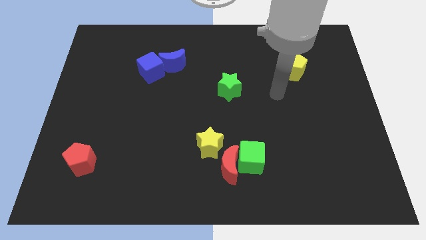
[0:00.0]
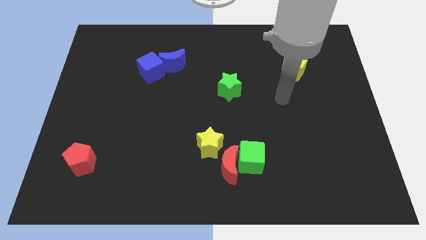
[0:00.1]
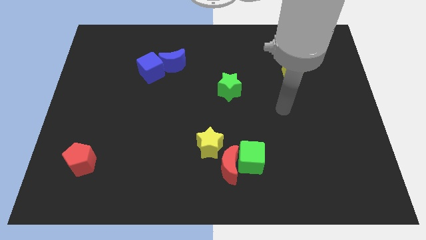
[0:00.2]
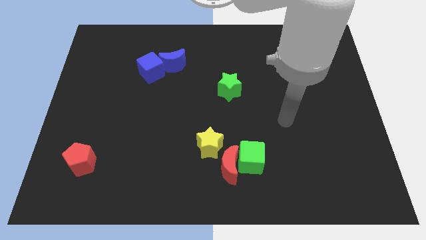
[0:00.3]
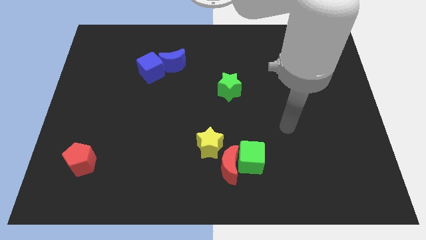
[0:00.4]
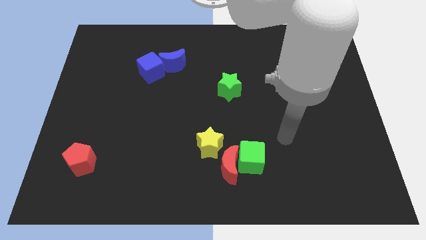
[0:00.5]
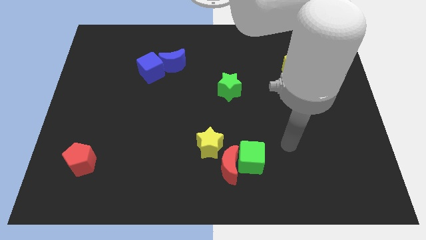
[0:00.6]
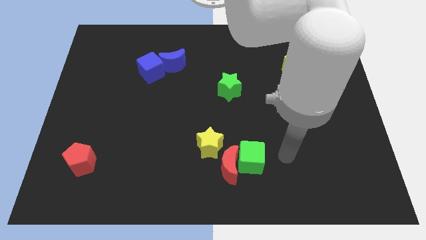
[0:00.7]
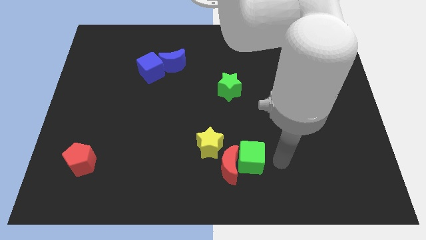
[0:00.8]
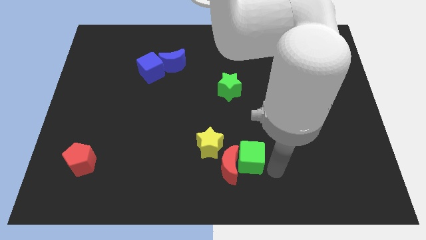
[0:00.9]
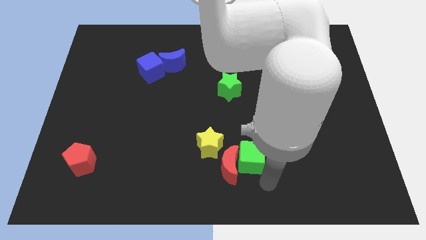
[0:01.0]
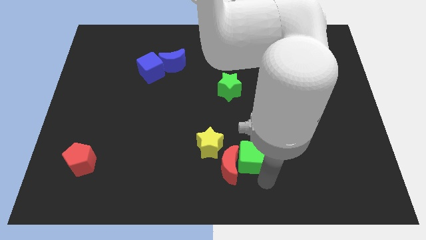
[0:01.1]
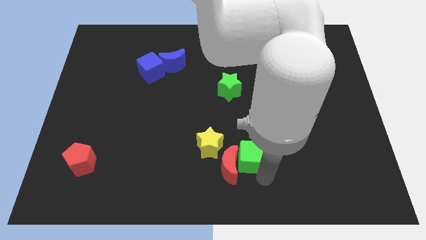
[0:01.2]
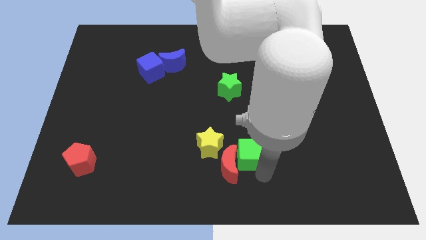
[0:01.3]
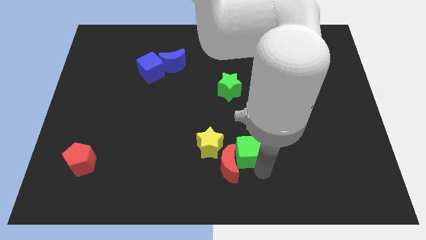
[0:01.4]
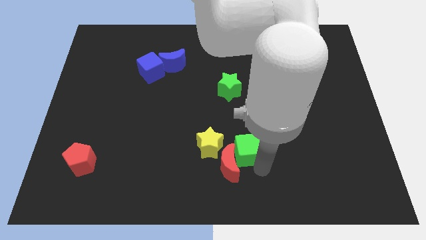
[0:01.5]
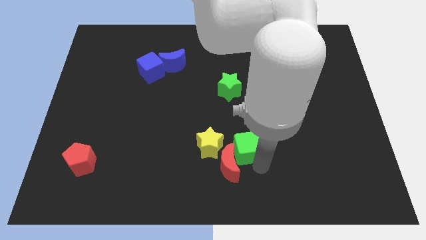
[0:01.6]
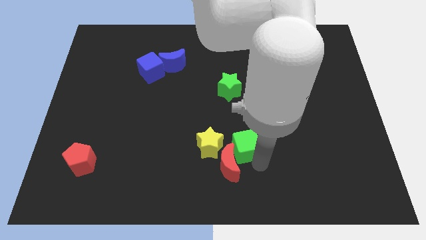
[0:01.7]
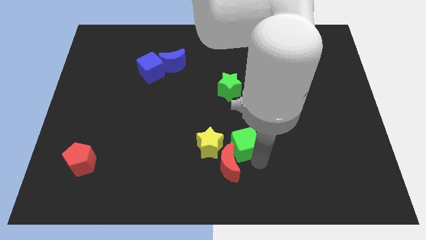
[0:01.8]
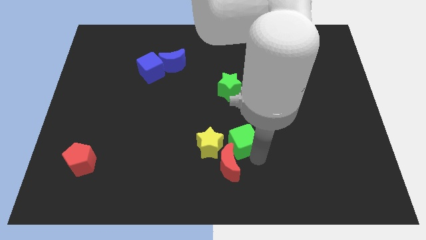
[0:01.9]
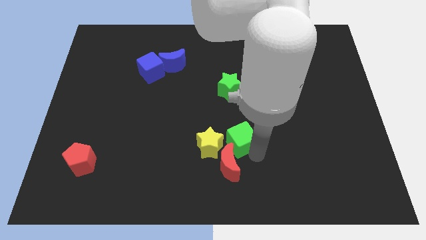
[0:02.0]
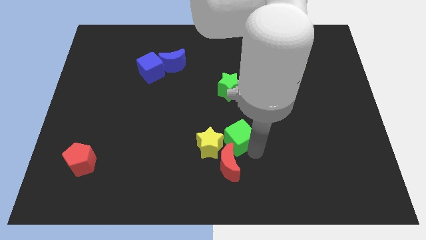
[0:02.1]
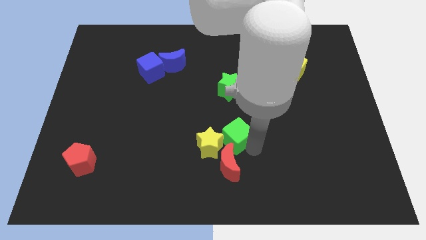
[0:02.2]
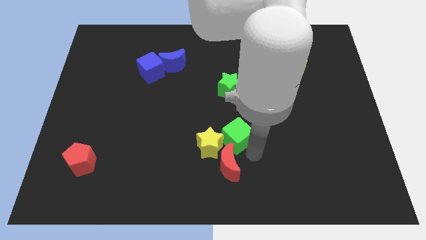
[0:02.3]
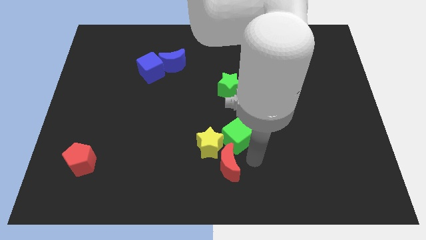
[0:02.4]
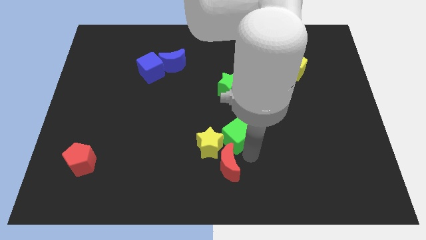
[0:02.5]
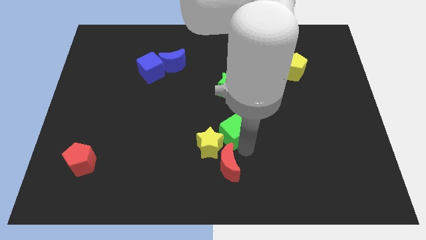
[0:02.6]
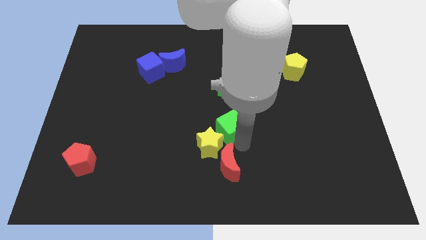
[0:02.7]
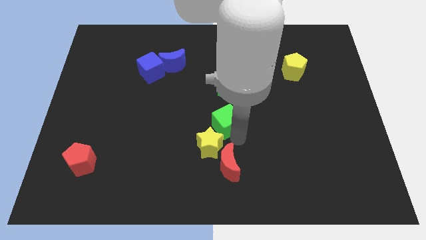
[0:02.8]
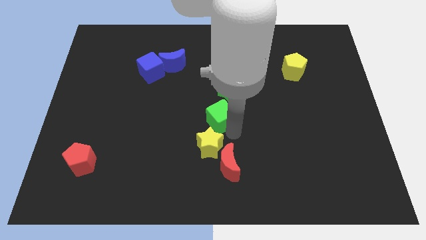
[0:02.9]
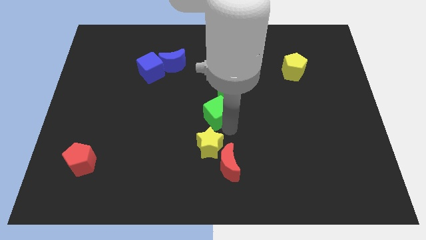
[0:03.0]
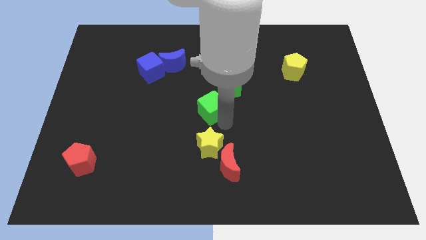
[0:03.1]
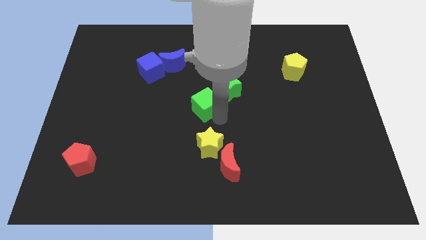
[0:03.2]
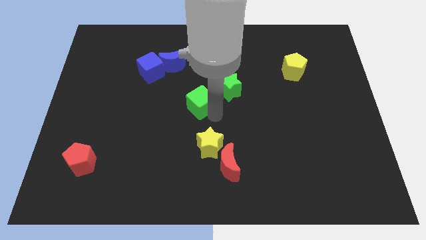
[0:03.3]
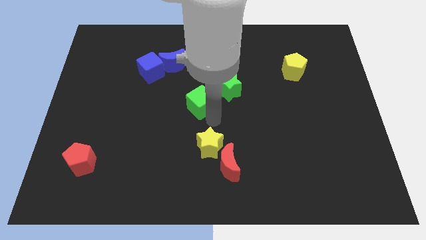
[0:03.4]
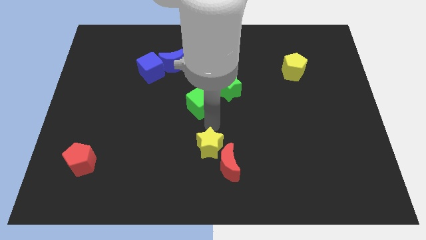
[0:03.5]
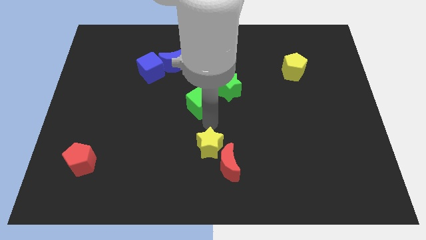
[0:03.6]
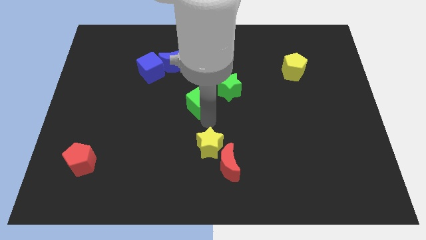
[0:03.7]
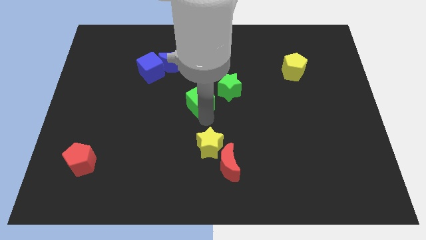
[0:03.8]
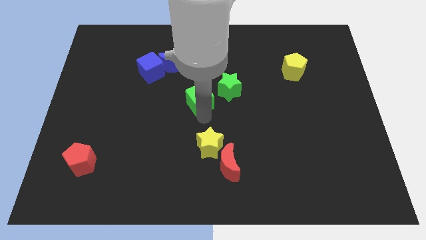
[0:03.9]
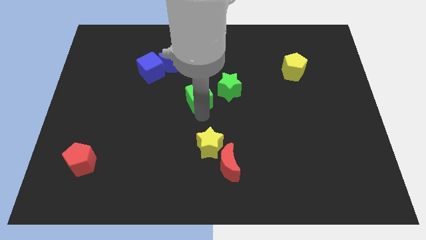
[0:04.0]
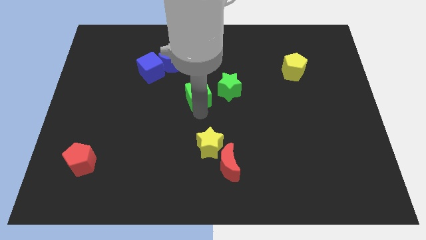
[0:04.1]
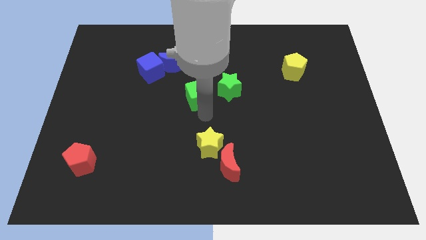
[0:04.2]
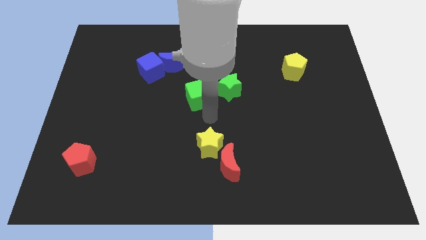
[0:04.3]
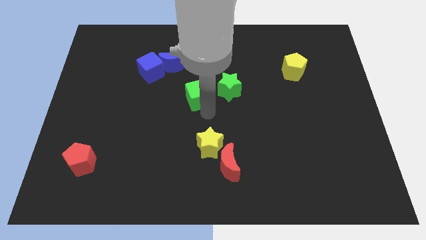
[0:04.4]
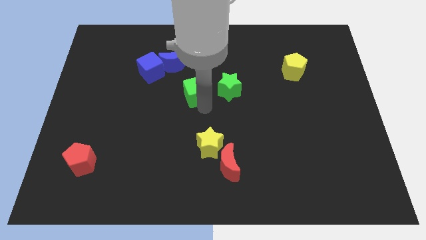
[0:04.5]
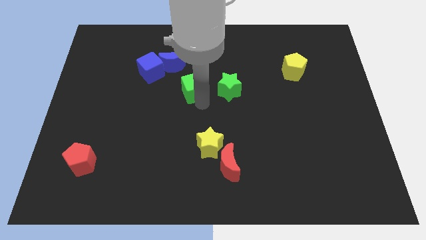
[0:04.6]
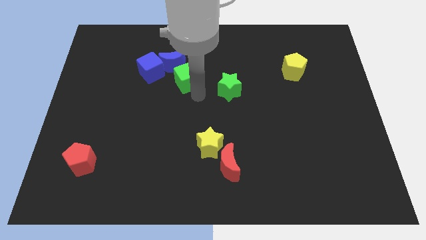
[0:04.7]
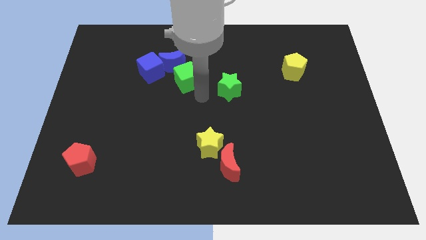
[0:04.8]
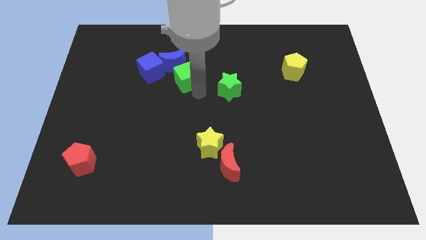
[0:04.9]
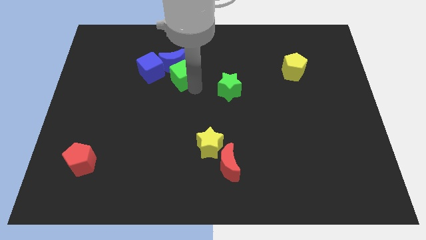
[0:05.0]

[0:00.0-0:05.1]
push the green cube close to the blue moon

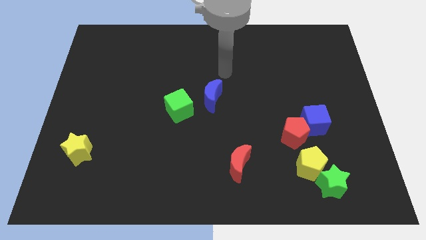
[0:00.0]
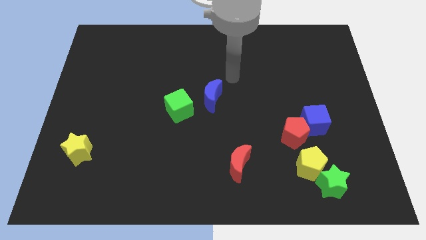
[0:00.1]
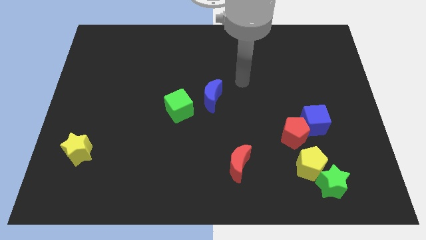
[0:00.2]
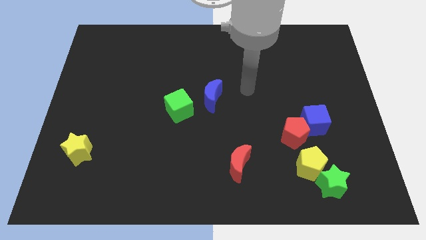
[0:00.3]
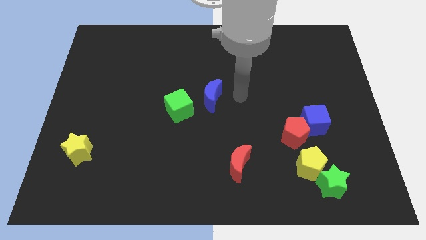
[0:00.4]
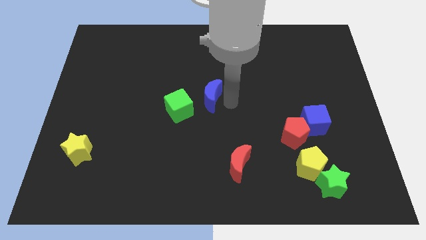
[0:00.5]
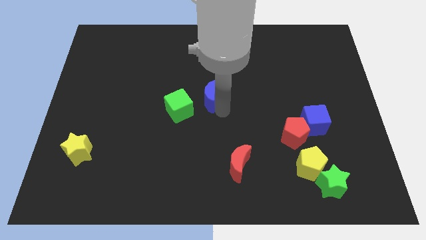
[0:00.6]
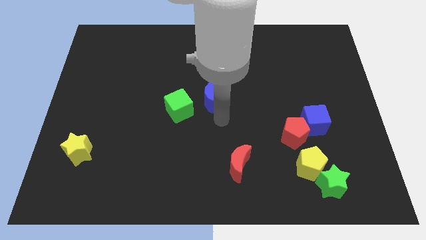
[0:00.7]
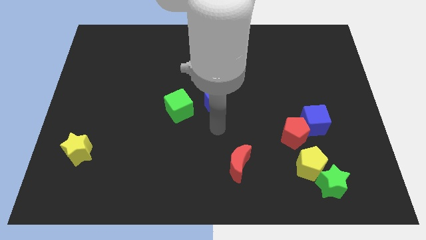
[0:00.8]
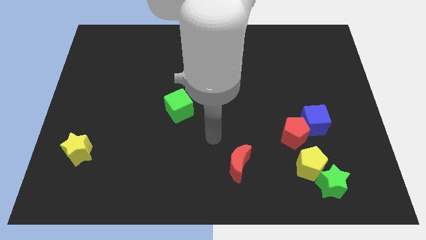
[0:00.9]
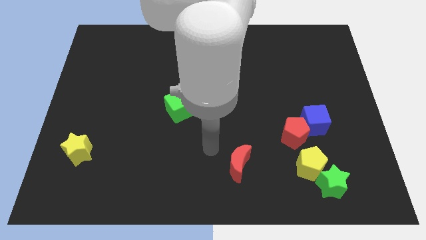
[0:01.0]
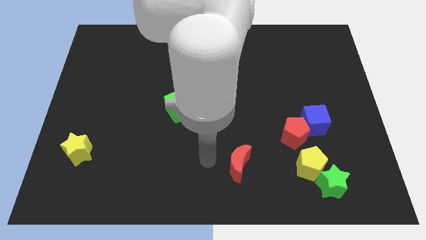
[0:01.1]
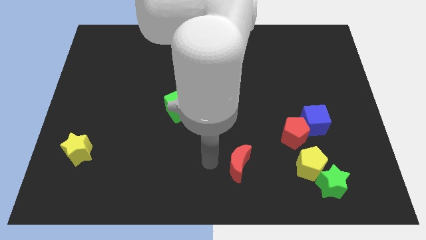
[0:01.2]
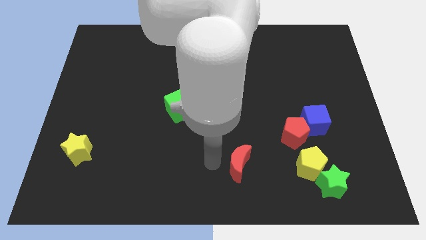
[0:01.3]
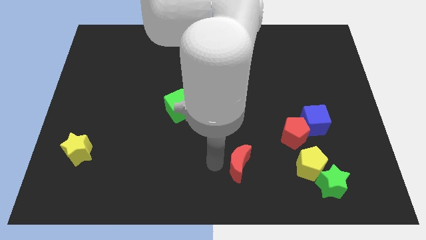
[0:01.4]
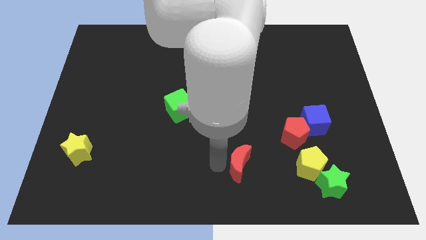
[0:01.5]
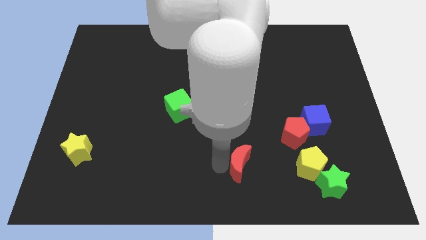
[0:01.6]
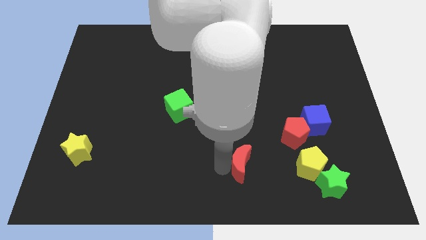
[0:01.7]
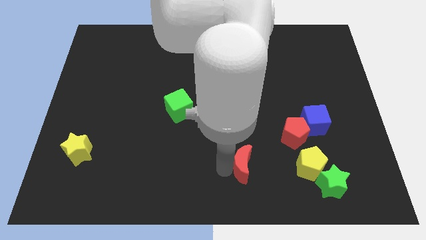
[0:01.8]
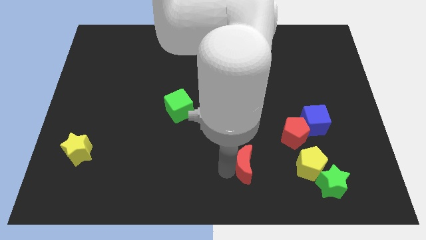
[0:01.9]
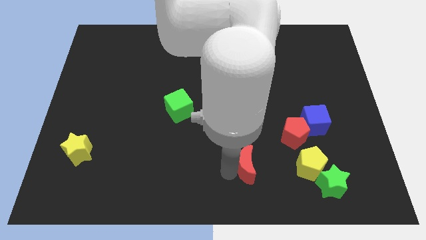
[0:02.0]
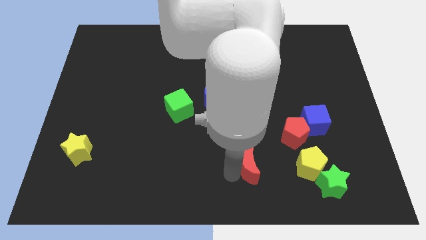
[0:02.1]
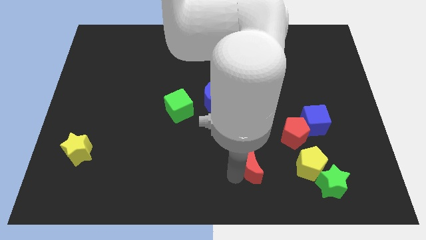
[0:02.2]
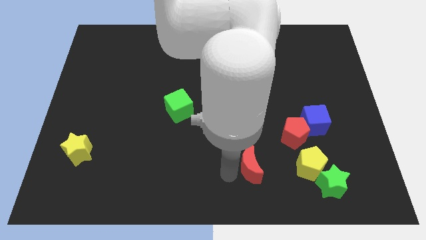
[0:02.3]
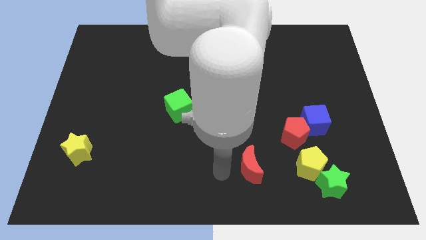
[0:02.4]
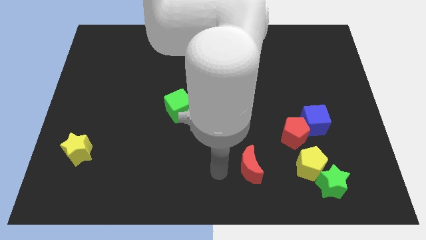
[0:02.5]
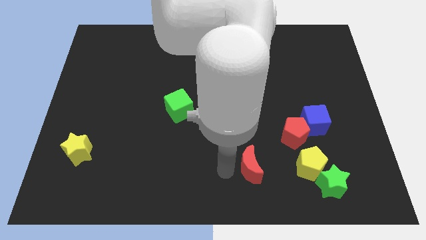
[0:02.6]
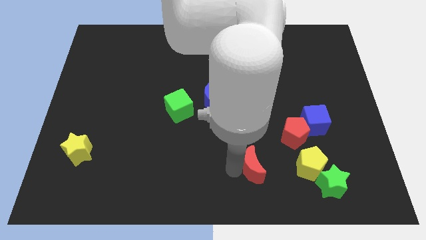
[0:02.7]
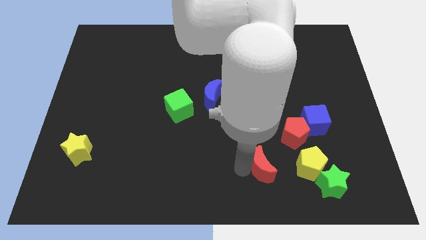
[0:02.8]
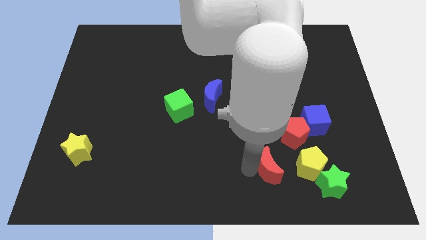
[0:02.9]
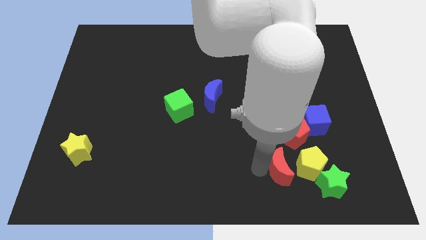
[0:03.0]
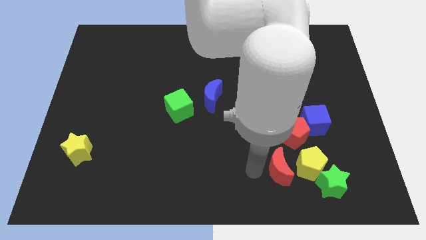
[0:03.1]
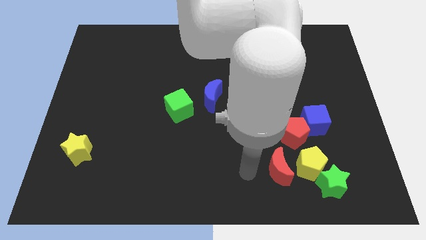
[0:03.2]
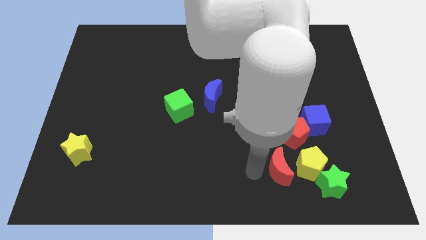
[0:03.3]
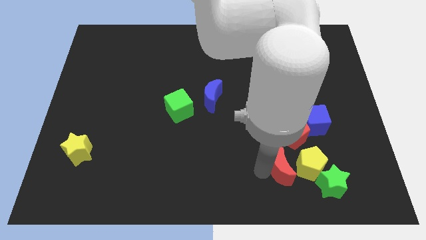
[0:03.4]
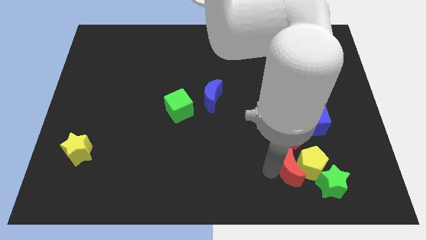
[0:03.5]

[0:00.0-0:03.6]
put the red moon to the yellow pentagon
